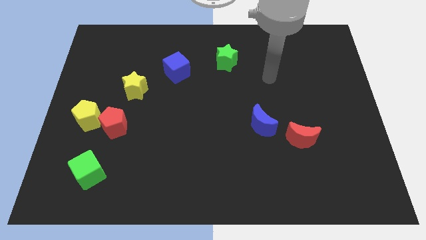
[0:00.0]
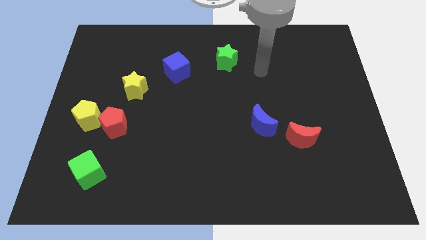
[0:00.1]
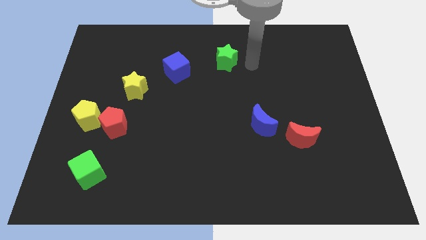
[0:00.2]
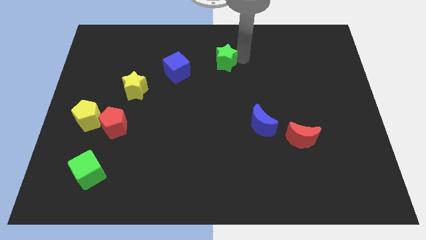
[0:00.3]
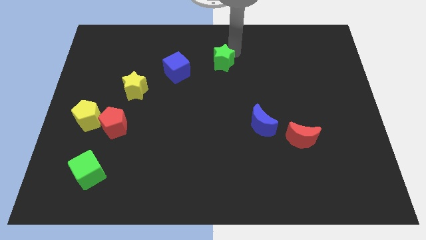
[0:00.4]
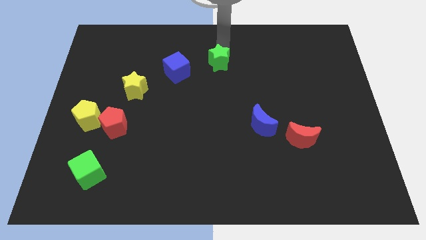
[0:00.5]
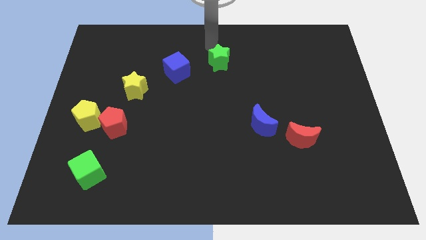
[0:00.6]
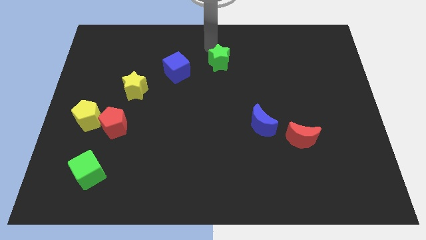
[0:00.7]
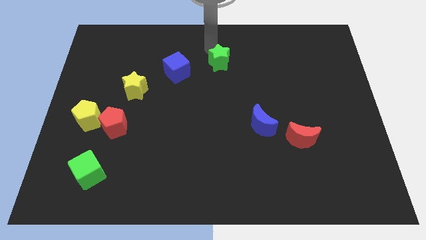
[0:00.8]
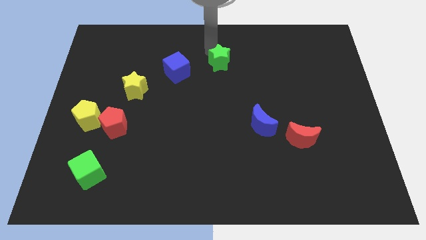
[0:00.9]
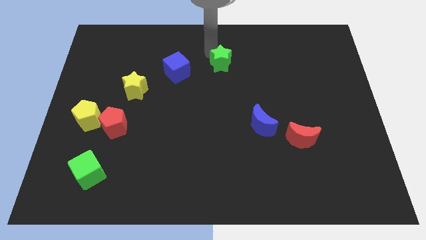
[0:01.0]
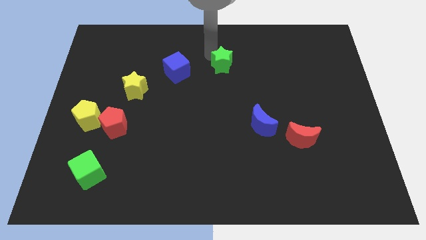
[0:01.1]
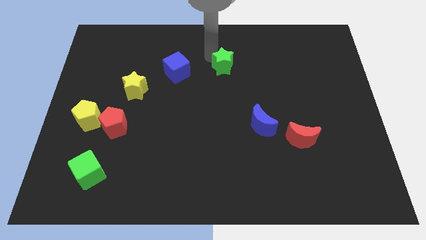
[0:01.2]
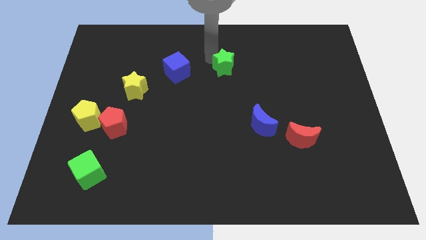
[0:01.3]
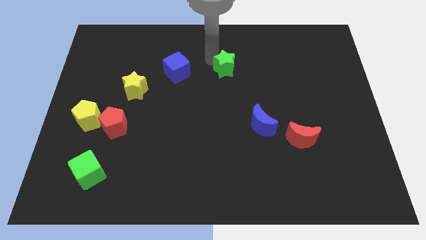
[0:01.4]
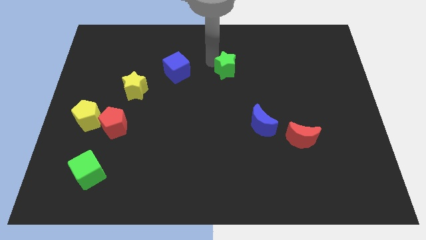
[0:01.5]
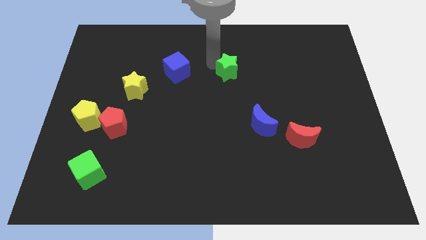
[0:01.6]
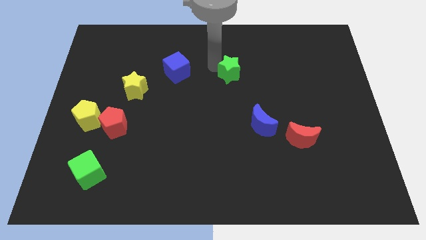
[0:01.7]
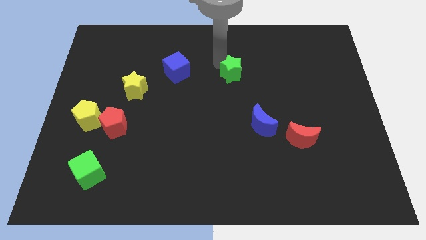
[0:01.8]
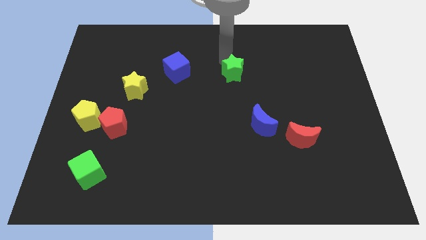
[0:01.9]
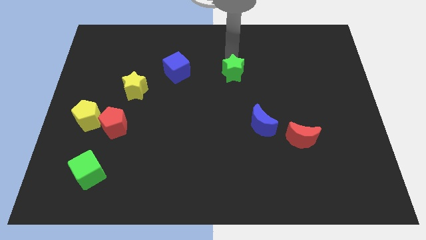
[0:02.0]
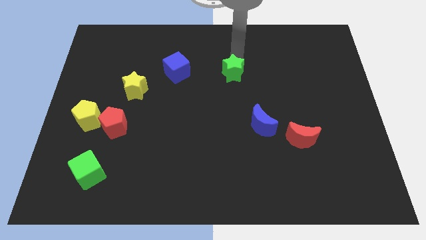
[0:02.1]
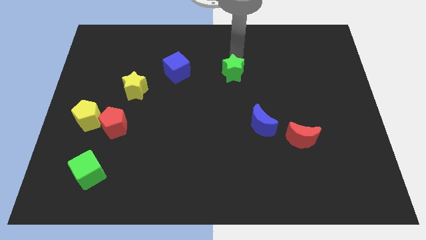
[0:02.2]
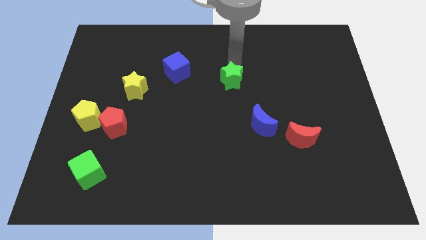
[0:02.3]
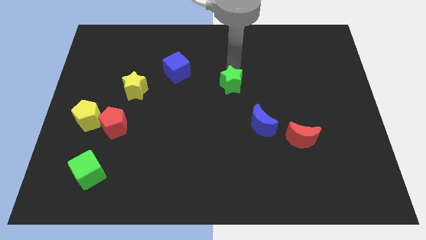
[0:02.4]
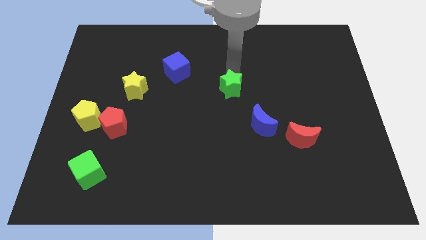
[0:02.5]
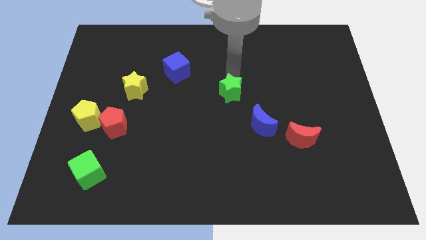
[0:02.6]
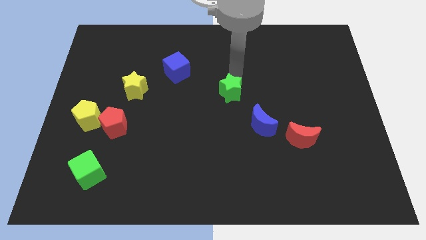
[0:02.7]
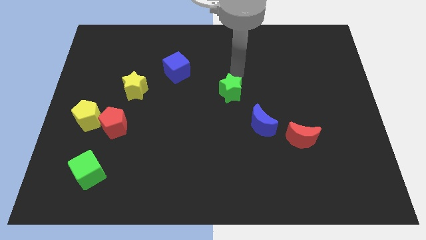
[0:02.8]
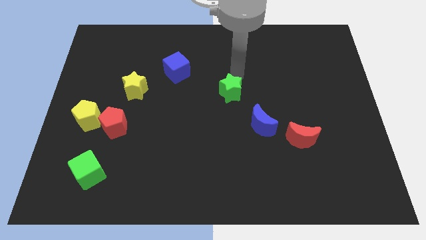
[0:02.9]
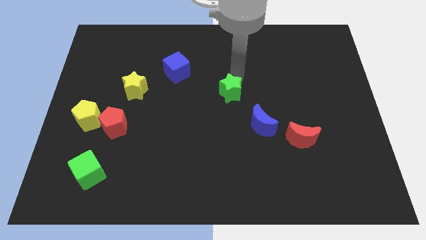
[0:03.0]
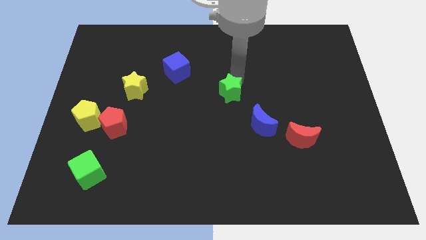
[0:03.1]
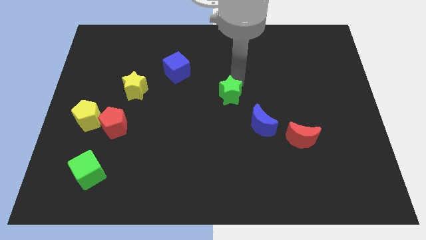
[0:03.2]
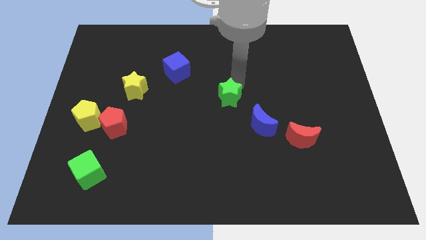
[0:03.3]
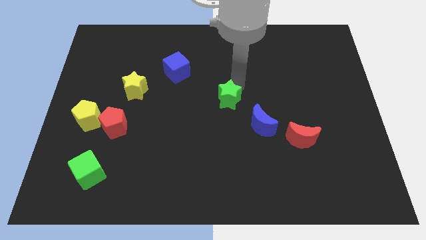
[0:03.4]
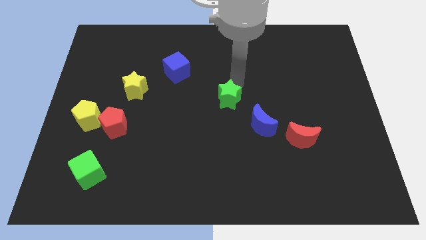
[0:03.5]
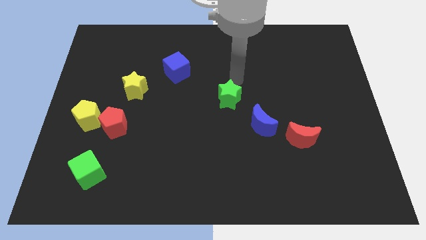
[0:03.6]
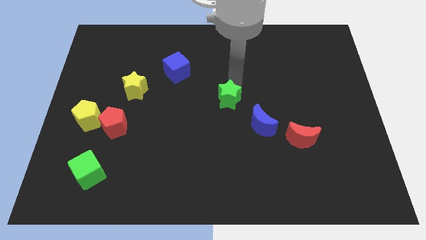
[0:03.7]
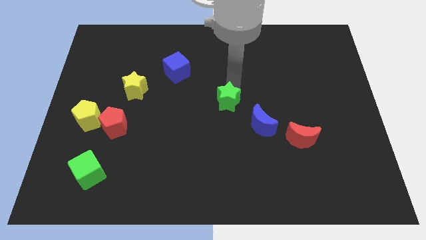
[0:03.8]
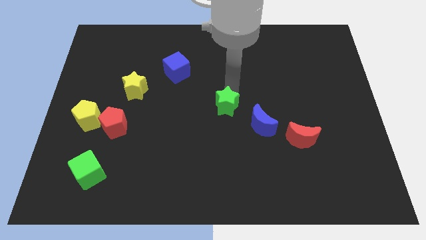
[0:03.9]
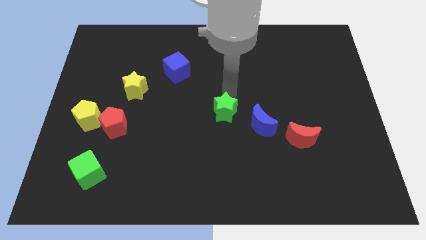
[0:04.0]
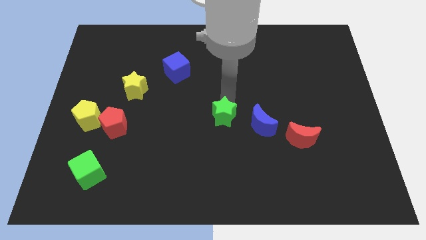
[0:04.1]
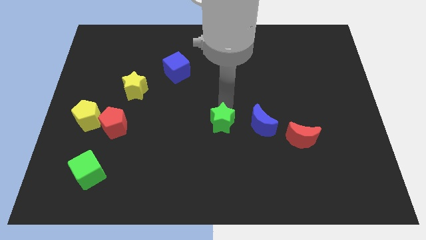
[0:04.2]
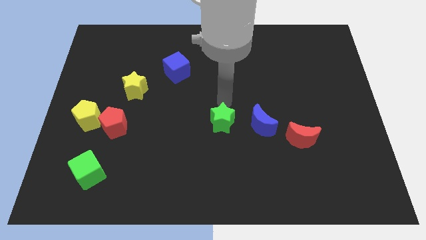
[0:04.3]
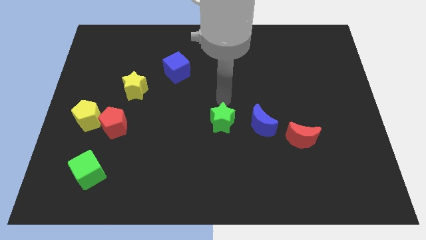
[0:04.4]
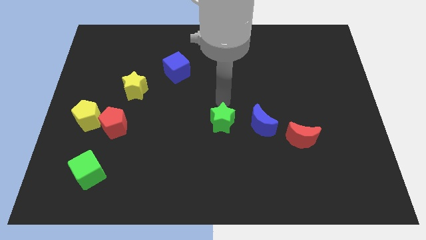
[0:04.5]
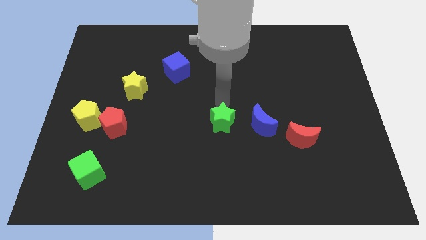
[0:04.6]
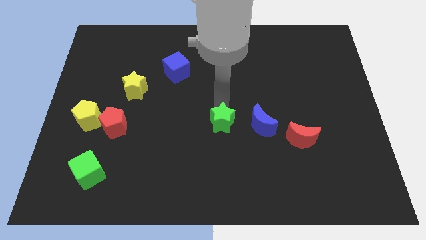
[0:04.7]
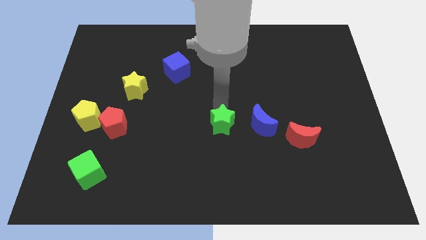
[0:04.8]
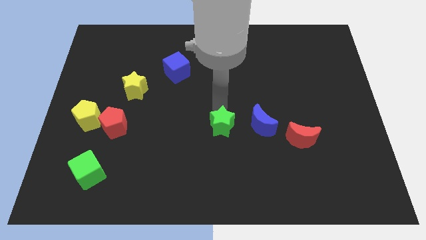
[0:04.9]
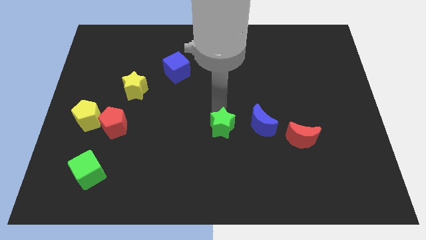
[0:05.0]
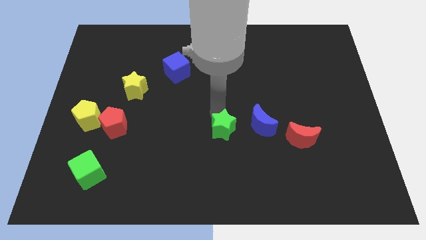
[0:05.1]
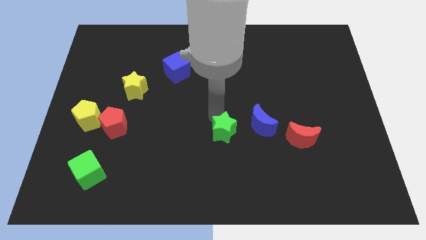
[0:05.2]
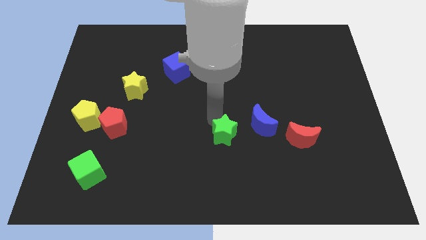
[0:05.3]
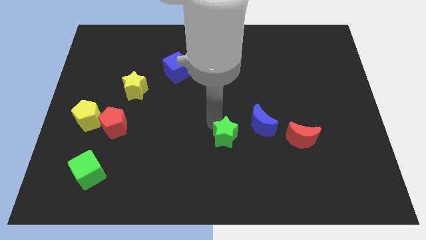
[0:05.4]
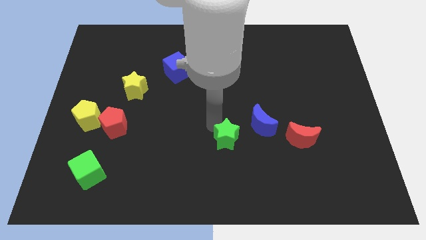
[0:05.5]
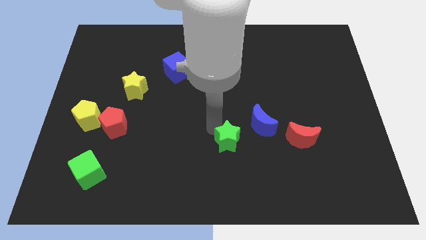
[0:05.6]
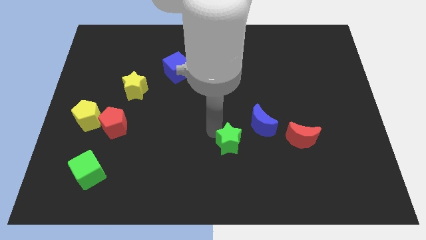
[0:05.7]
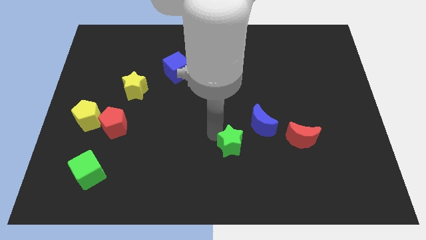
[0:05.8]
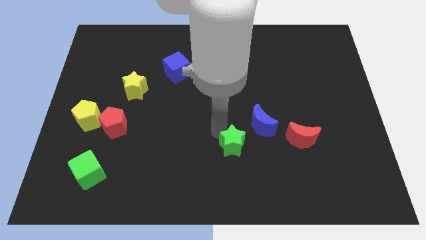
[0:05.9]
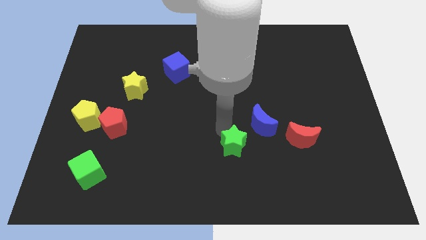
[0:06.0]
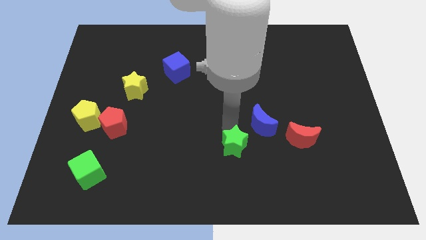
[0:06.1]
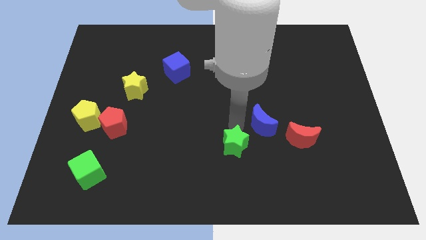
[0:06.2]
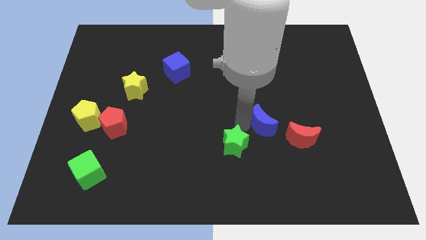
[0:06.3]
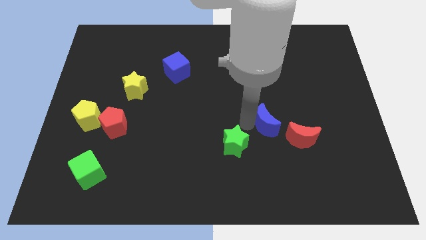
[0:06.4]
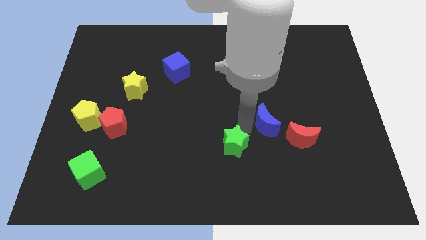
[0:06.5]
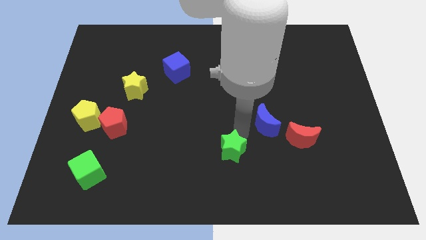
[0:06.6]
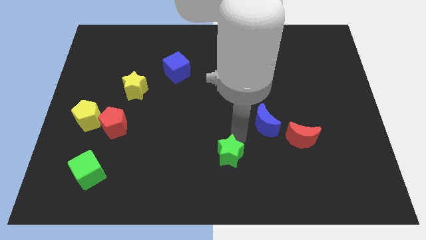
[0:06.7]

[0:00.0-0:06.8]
move the green star to the bottom
